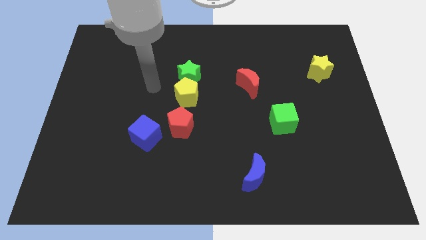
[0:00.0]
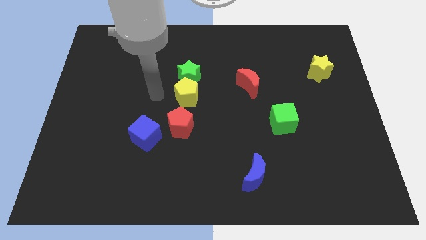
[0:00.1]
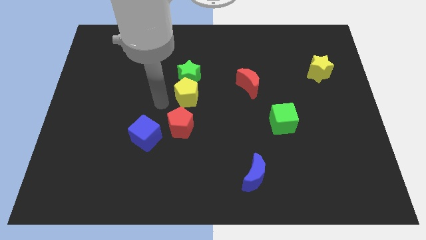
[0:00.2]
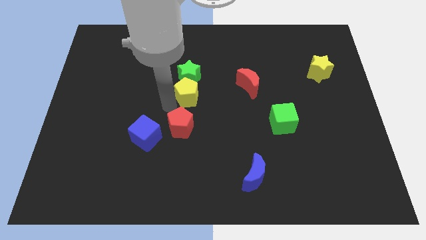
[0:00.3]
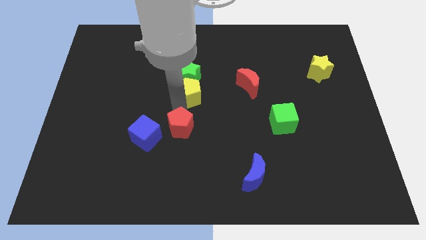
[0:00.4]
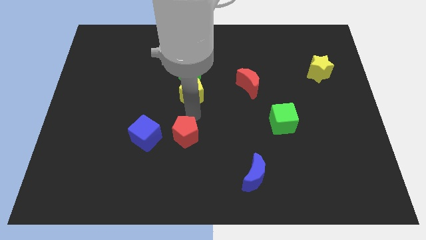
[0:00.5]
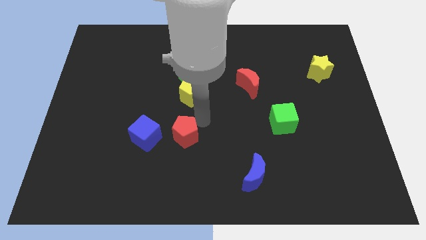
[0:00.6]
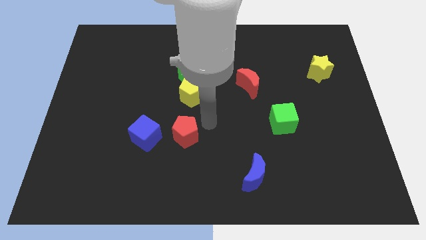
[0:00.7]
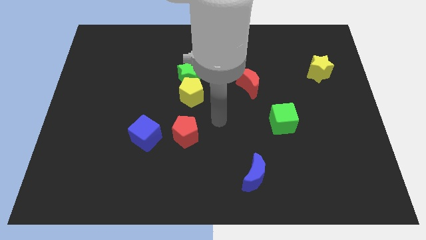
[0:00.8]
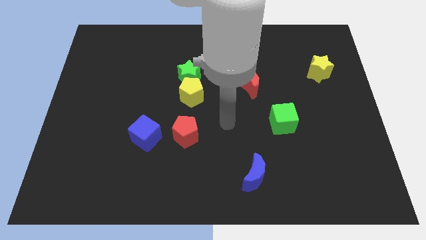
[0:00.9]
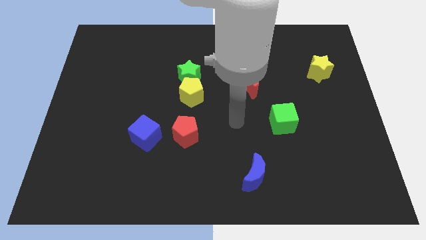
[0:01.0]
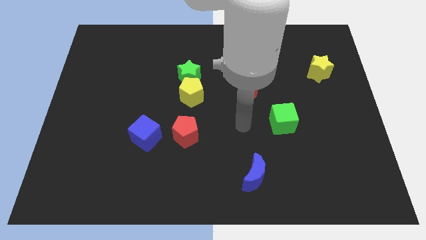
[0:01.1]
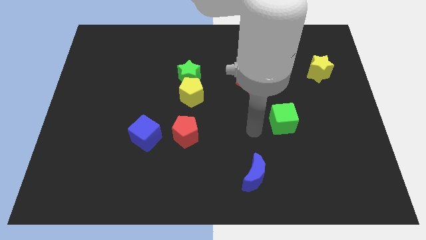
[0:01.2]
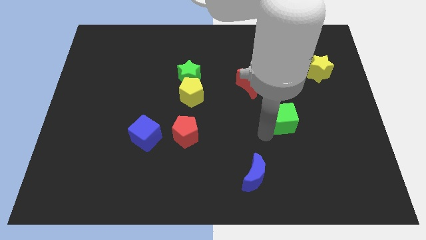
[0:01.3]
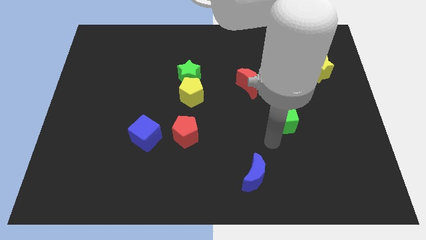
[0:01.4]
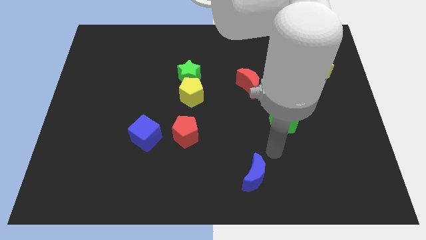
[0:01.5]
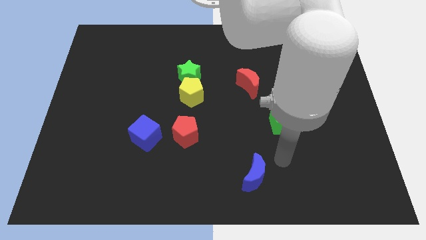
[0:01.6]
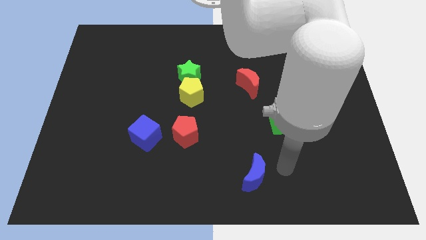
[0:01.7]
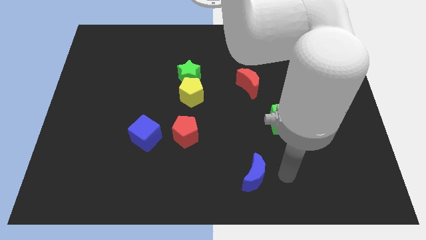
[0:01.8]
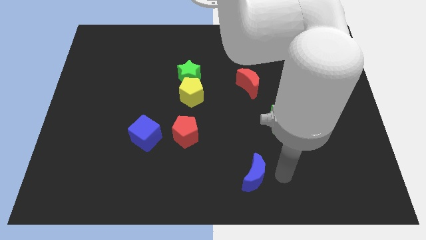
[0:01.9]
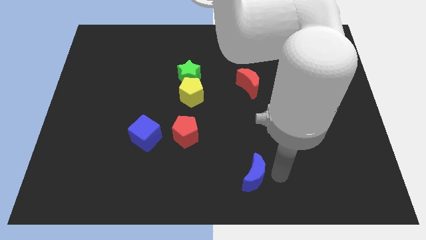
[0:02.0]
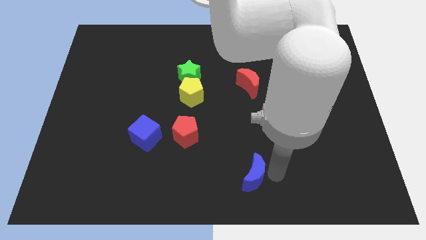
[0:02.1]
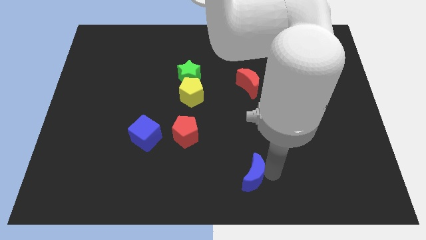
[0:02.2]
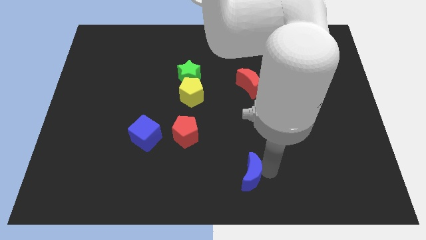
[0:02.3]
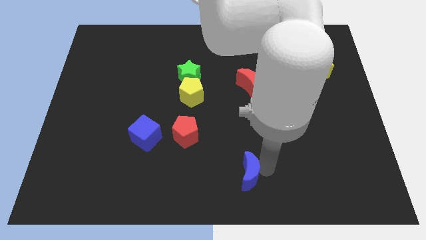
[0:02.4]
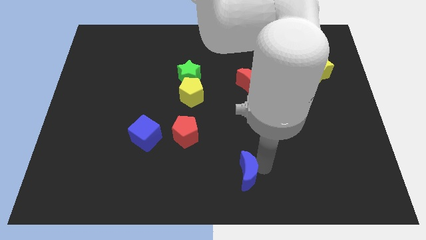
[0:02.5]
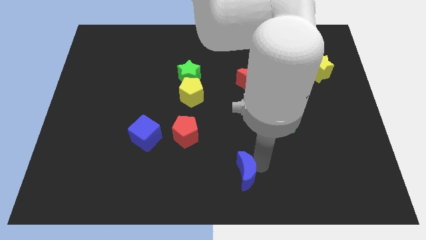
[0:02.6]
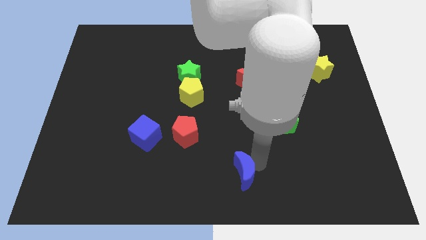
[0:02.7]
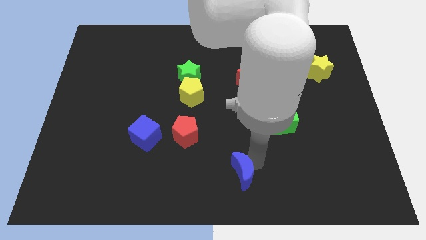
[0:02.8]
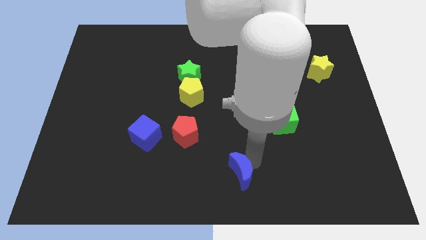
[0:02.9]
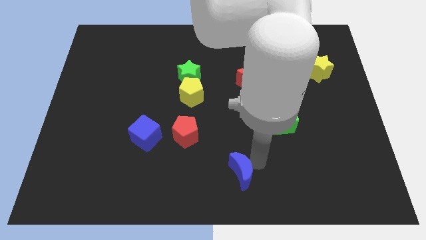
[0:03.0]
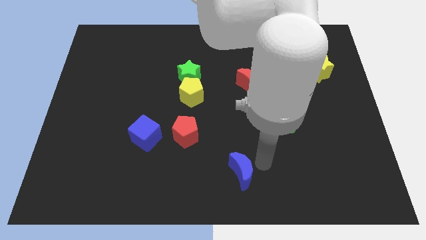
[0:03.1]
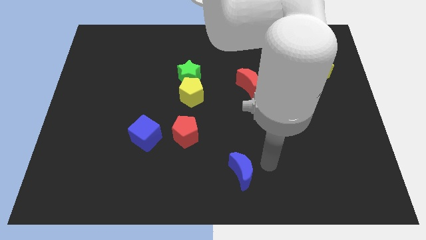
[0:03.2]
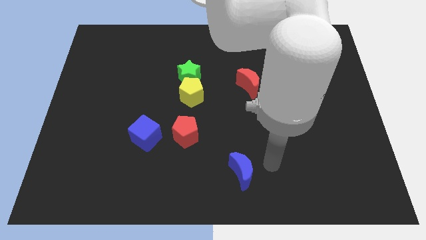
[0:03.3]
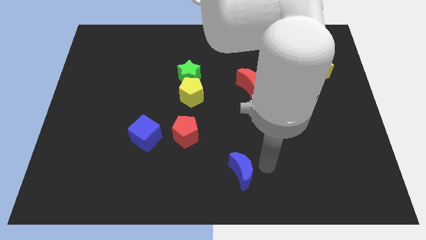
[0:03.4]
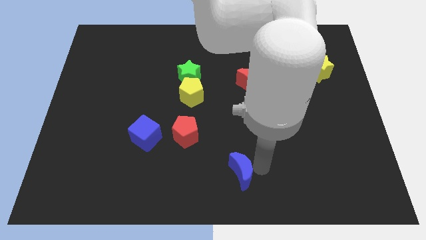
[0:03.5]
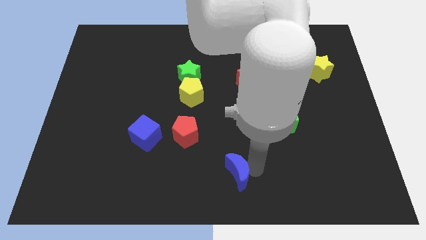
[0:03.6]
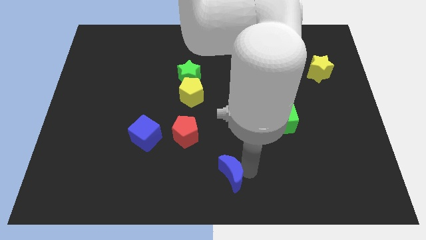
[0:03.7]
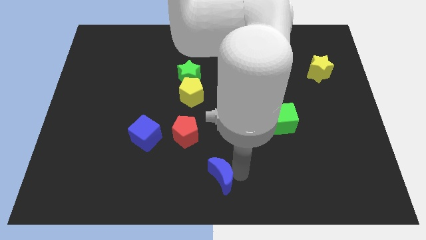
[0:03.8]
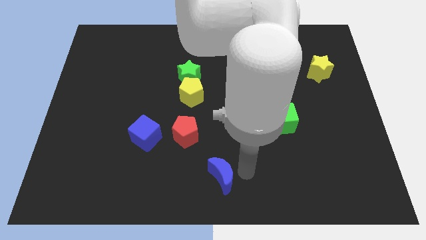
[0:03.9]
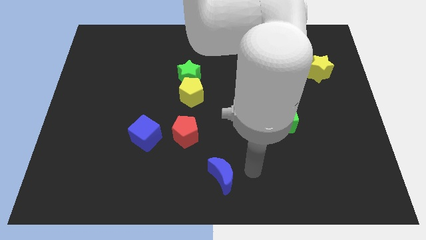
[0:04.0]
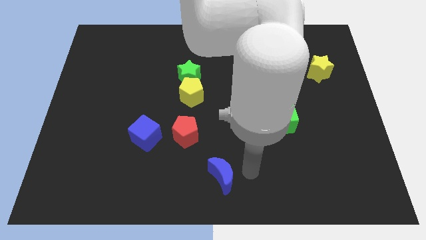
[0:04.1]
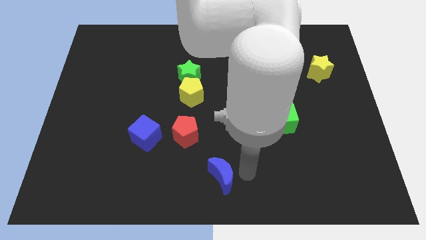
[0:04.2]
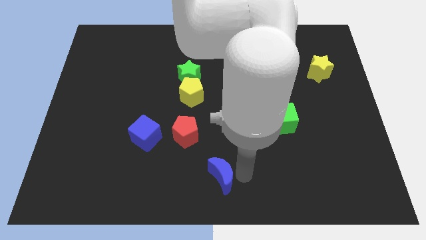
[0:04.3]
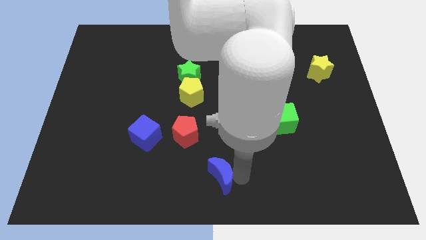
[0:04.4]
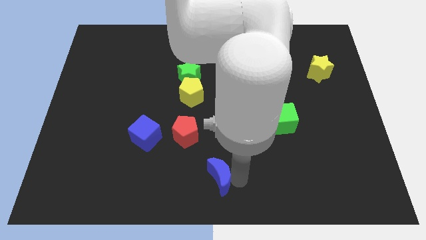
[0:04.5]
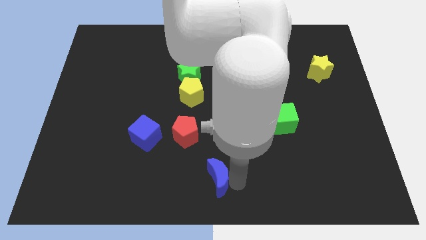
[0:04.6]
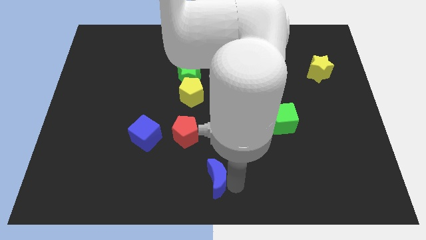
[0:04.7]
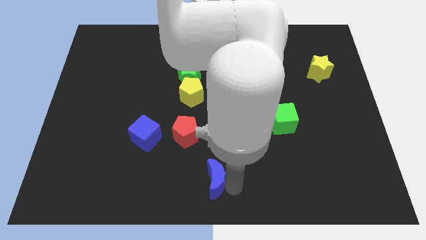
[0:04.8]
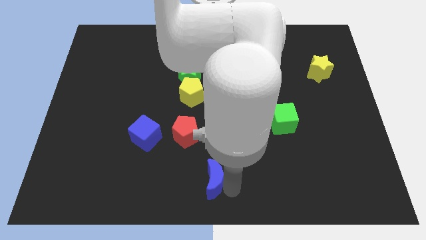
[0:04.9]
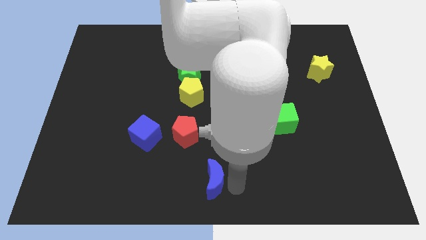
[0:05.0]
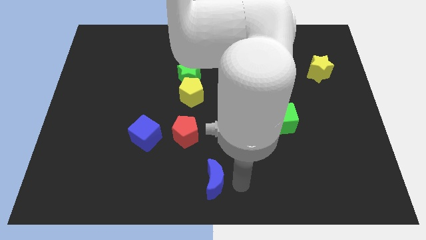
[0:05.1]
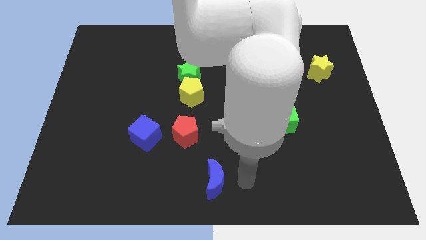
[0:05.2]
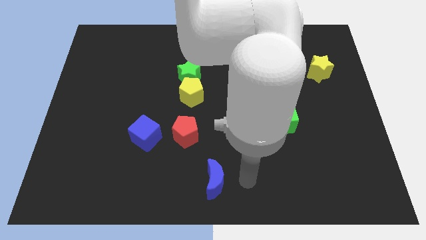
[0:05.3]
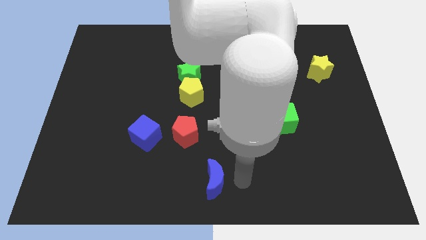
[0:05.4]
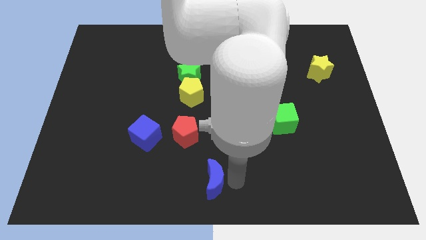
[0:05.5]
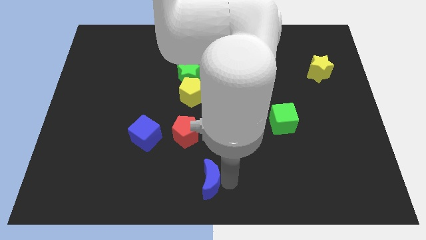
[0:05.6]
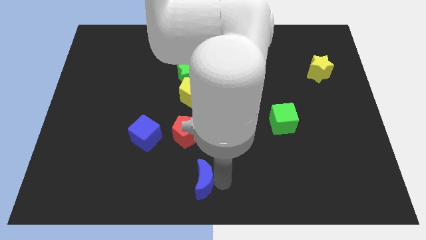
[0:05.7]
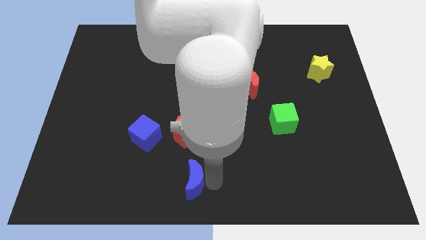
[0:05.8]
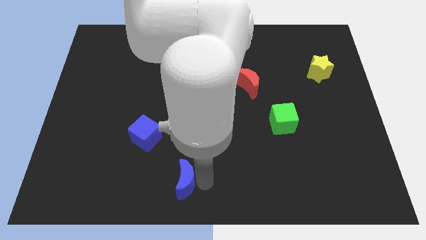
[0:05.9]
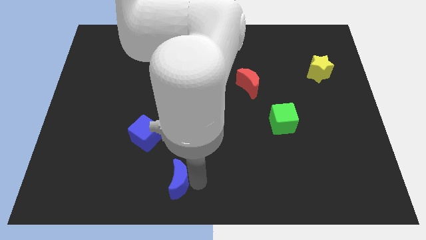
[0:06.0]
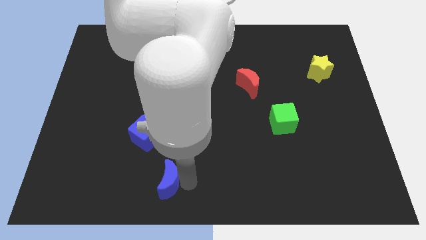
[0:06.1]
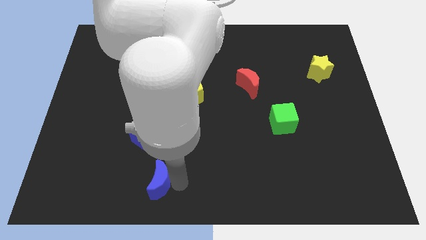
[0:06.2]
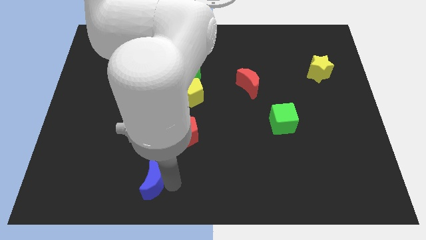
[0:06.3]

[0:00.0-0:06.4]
push the blue moon left

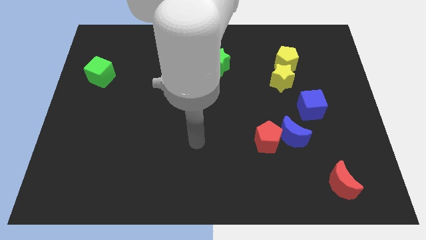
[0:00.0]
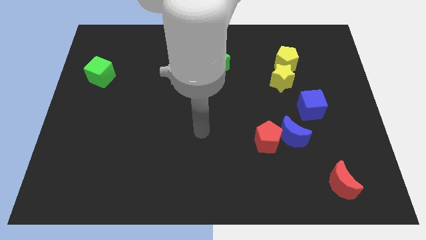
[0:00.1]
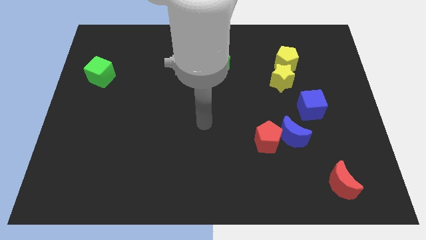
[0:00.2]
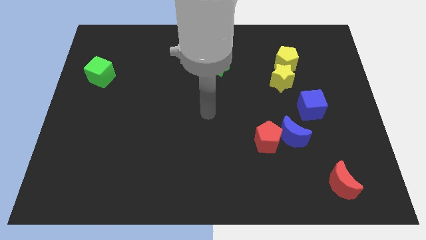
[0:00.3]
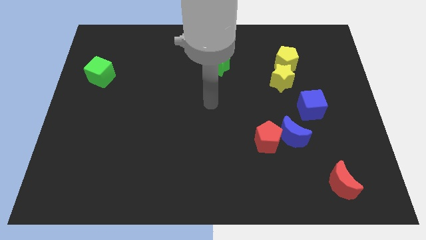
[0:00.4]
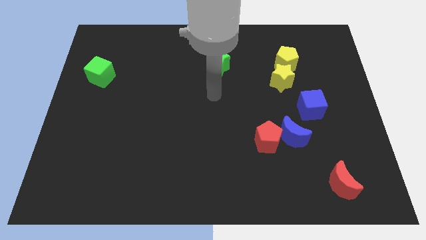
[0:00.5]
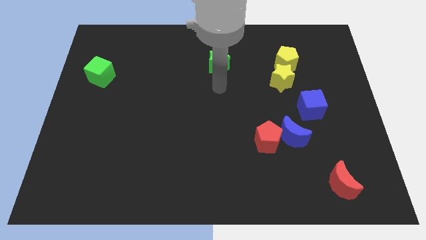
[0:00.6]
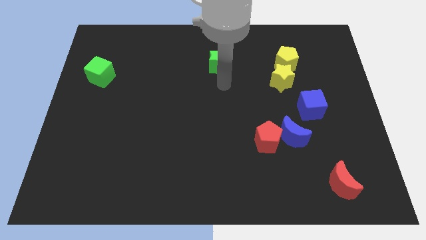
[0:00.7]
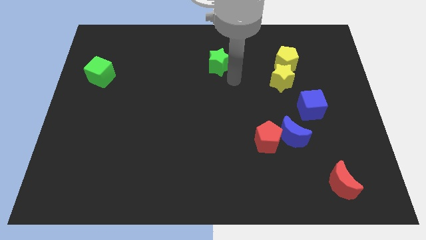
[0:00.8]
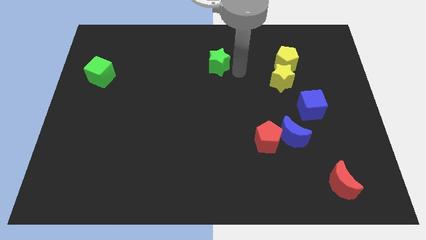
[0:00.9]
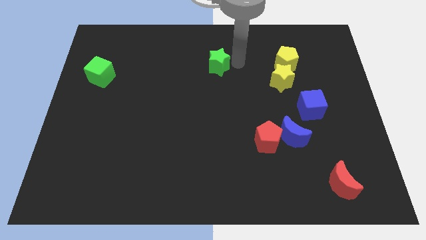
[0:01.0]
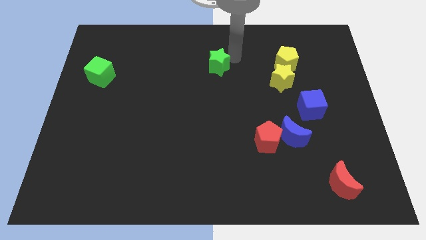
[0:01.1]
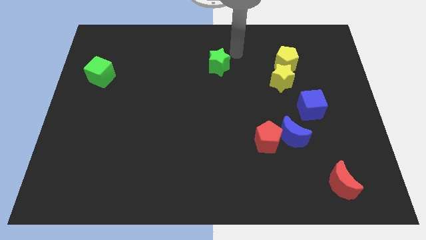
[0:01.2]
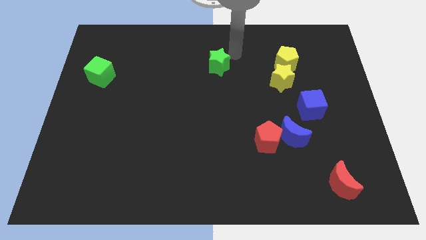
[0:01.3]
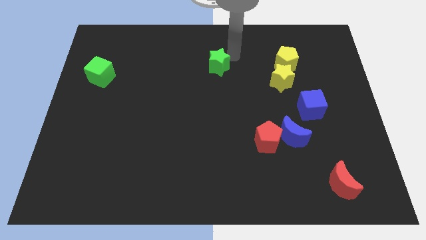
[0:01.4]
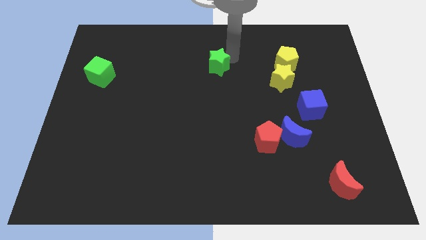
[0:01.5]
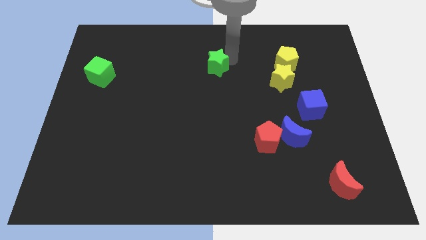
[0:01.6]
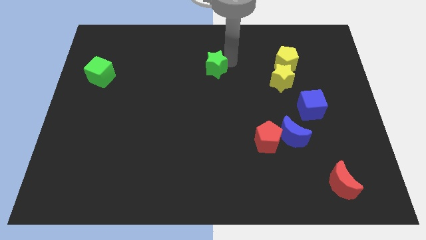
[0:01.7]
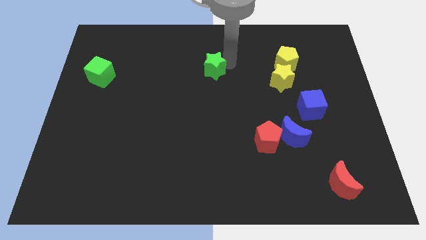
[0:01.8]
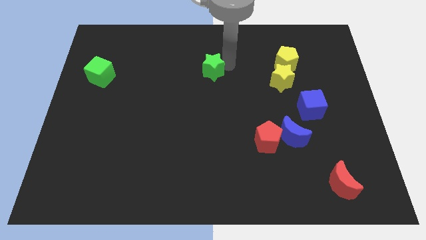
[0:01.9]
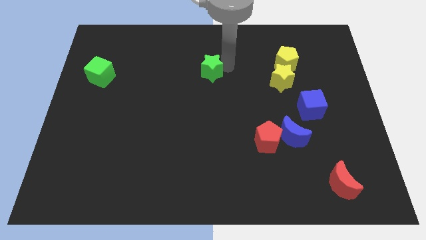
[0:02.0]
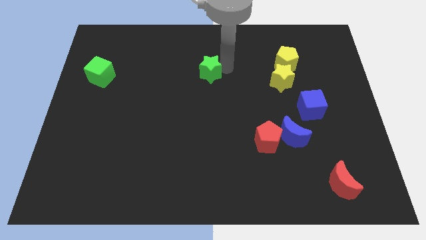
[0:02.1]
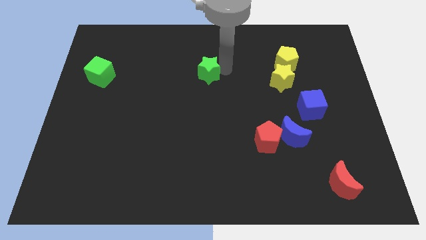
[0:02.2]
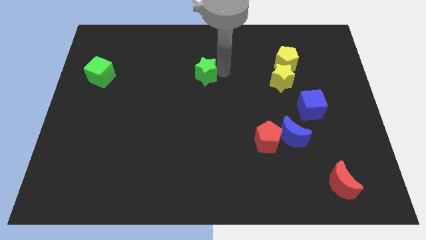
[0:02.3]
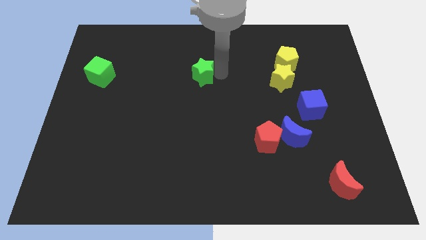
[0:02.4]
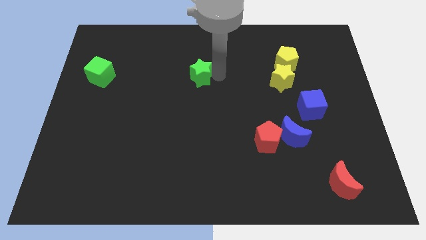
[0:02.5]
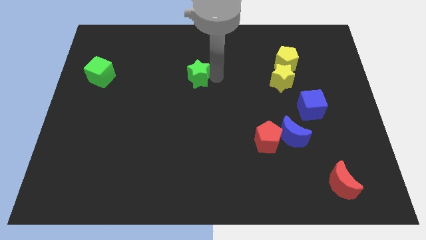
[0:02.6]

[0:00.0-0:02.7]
slightly slide the green star diagonally downwards and left
